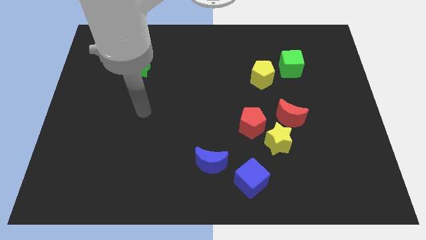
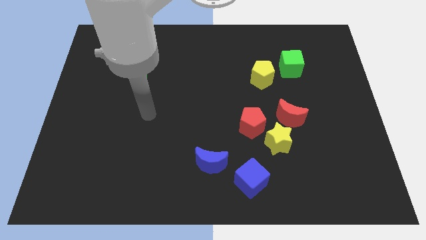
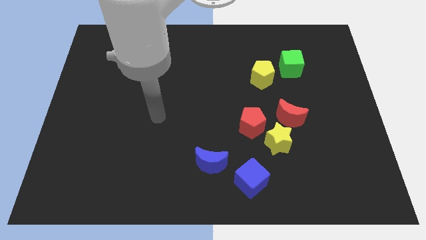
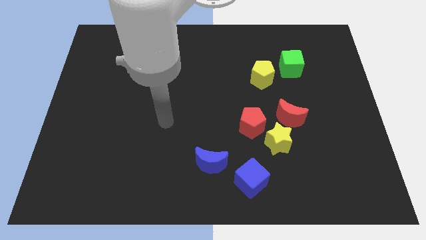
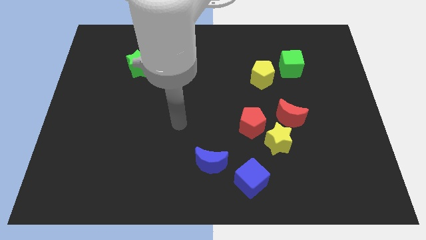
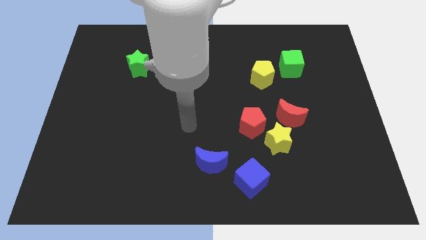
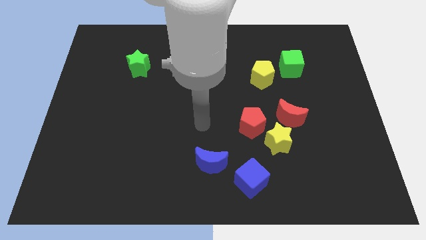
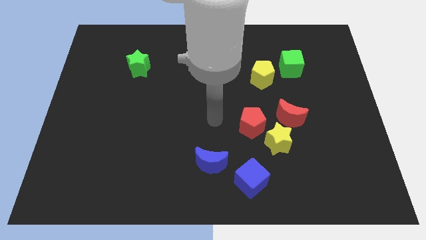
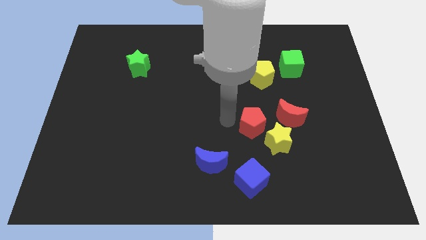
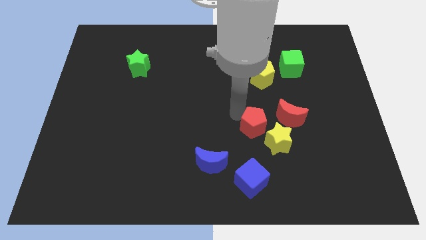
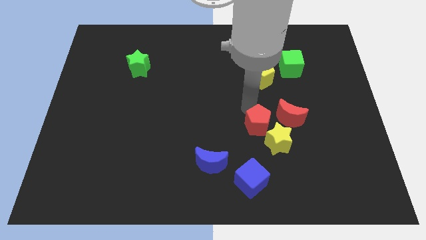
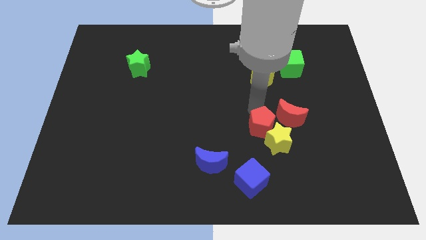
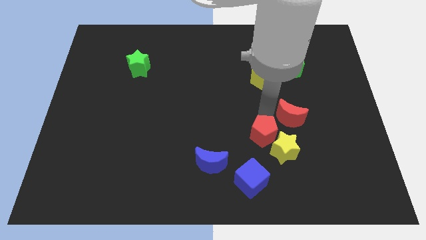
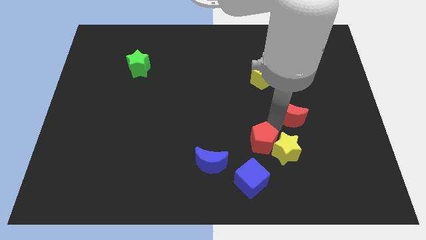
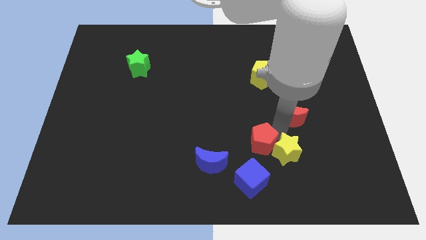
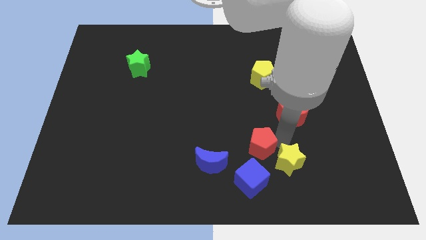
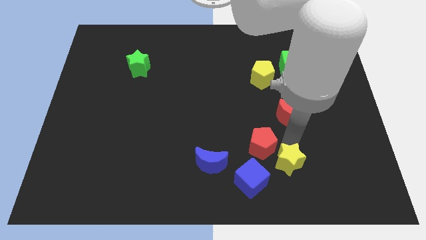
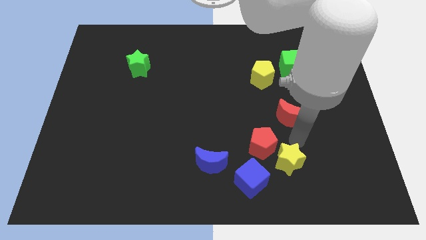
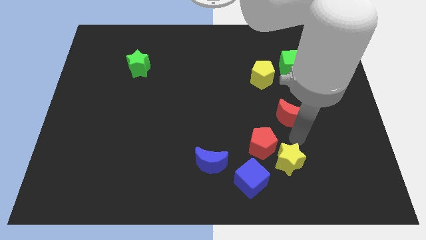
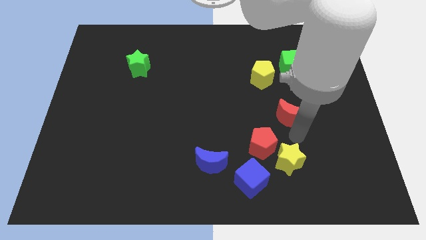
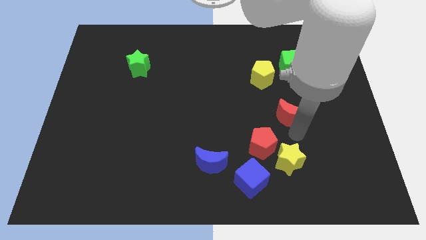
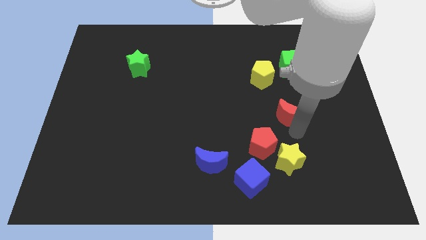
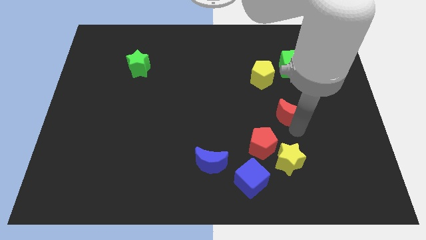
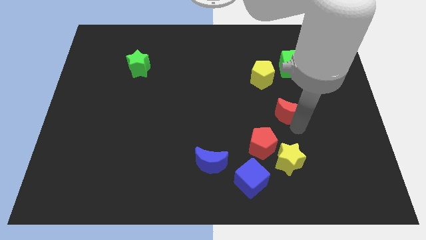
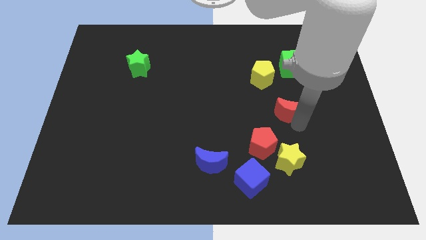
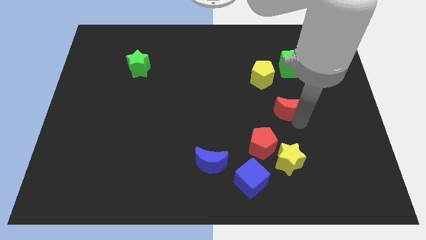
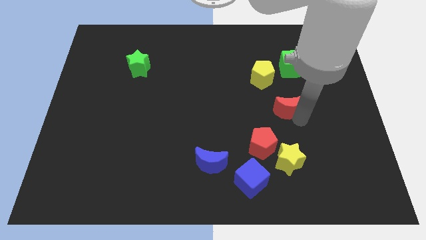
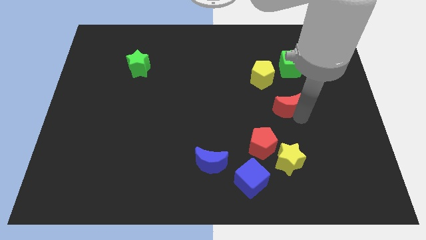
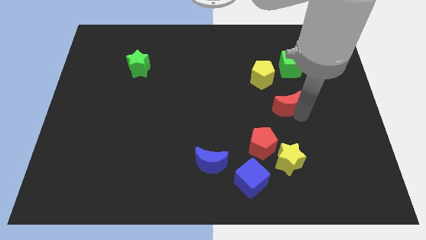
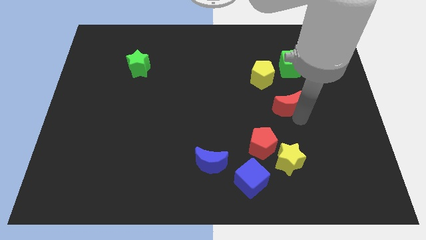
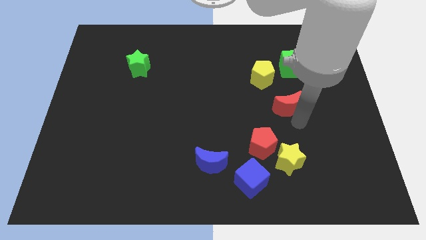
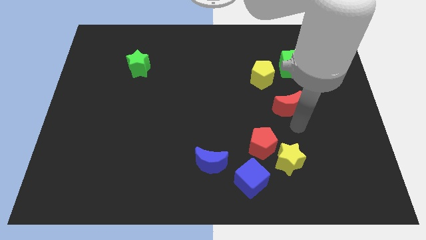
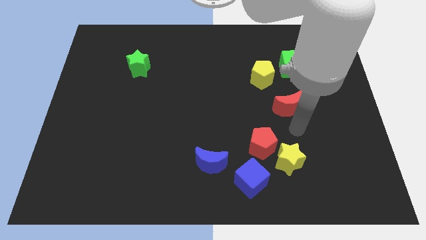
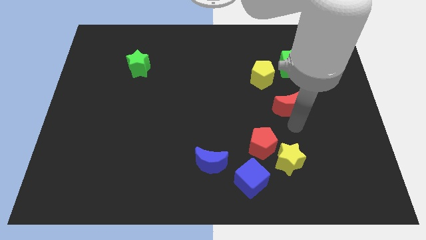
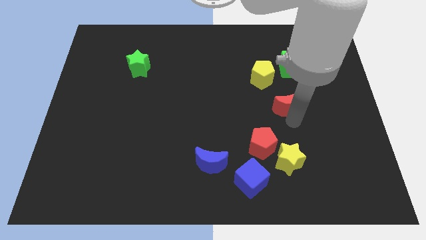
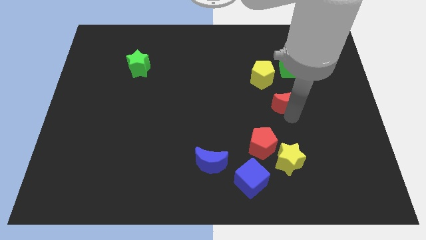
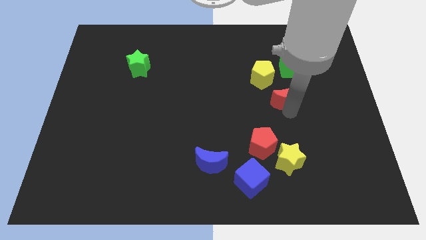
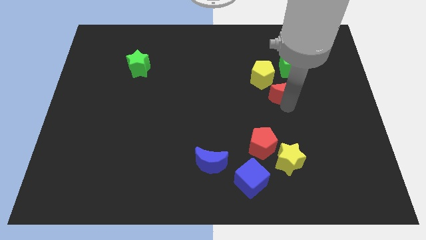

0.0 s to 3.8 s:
slightly push the red moon up

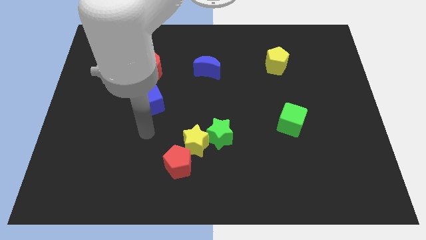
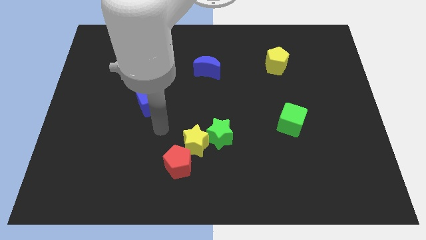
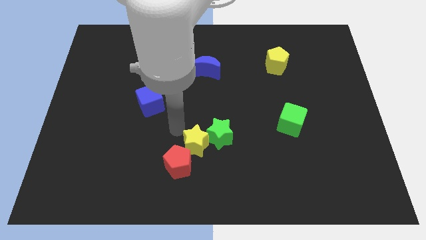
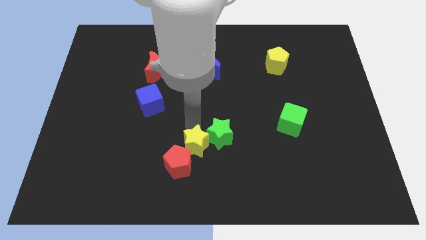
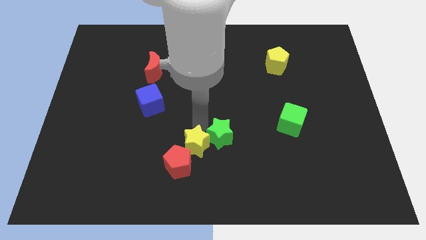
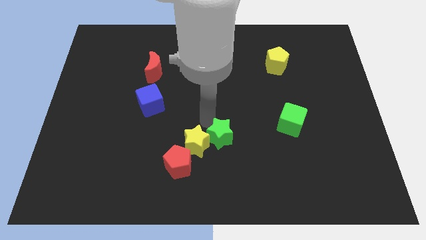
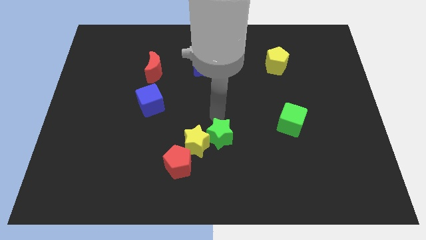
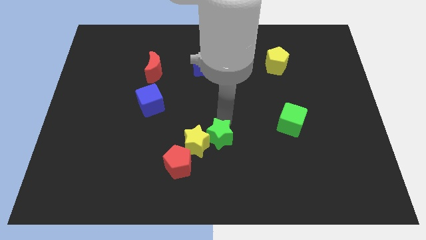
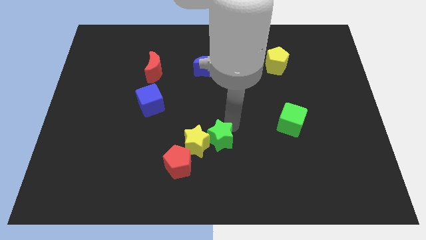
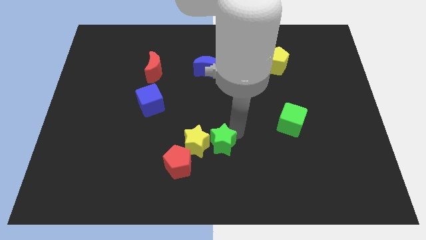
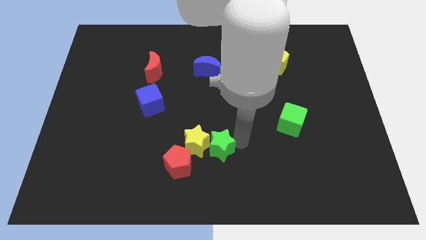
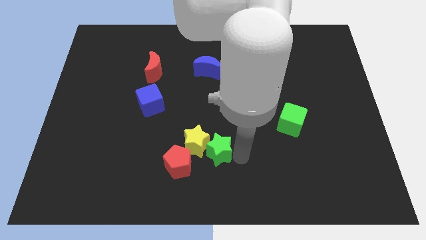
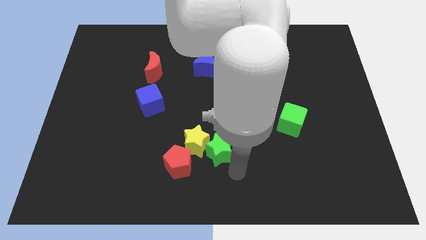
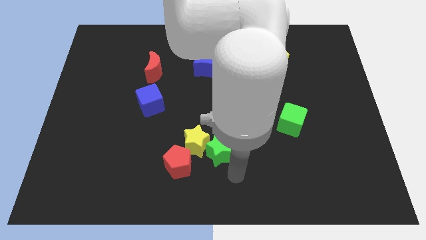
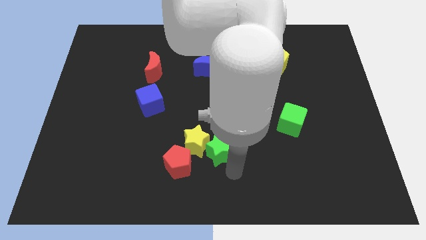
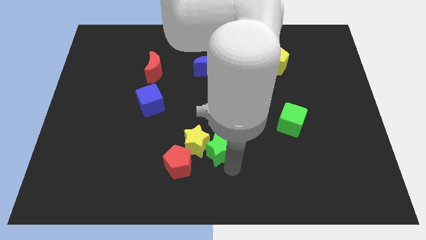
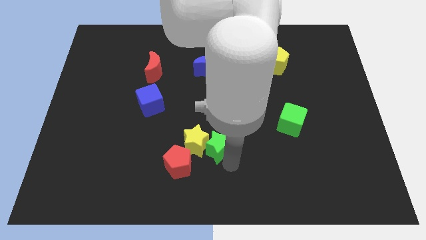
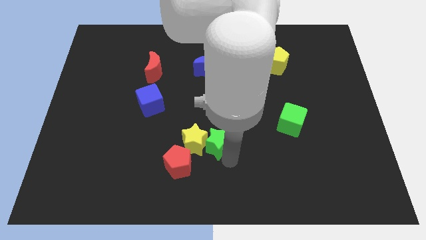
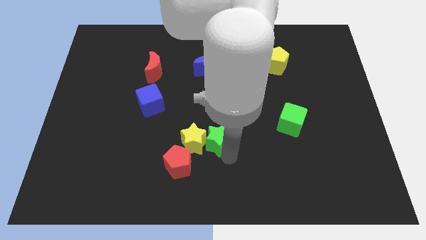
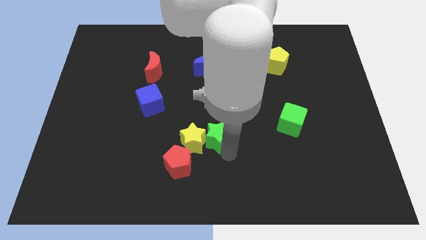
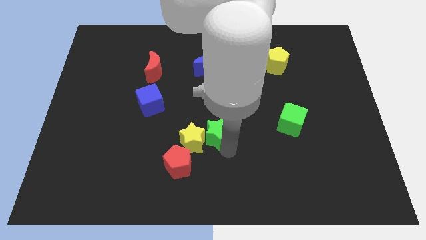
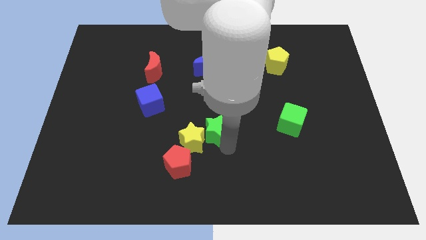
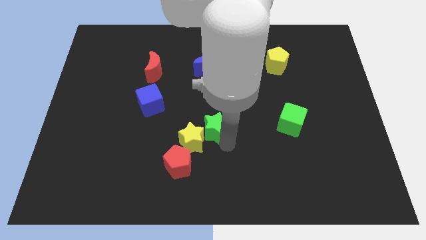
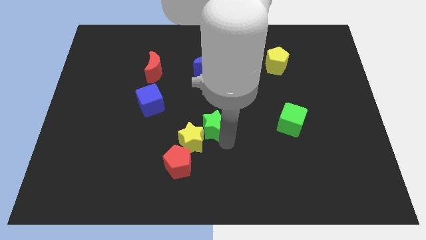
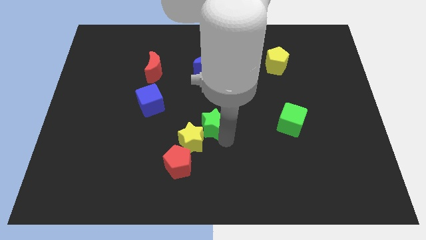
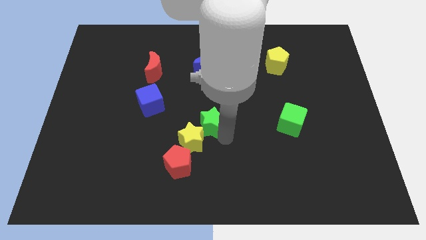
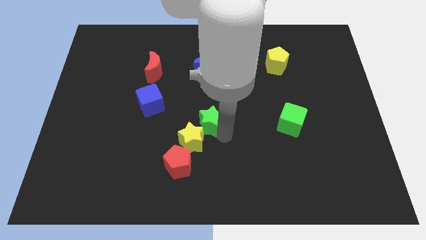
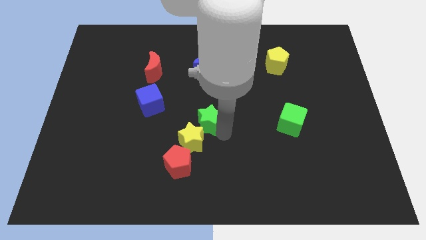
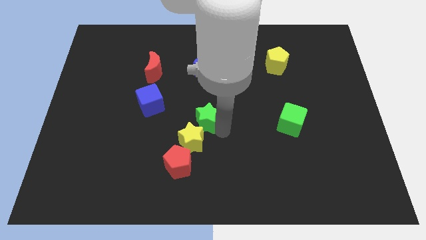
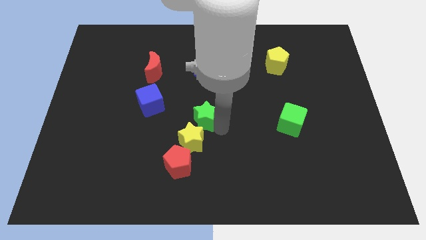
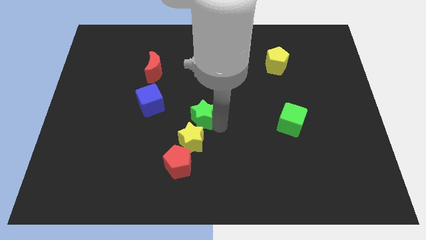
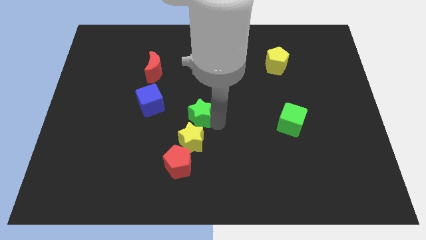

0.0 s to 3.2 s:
push the green star slightly up and to the left diagonally

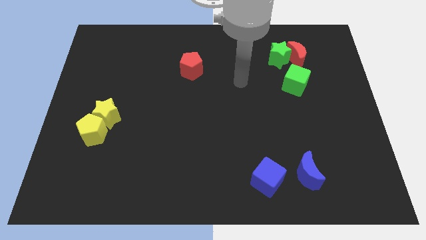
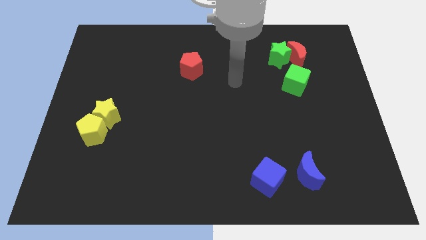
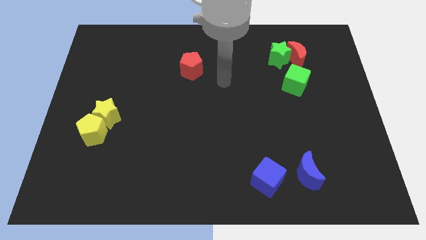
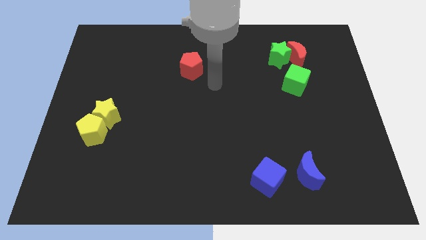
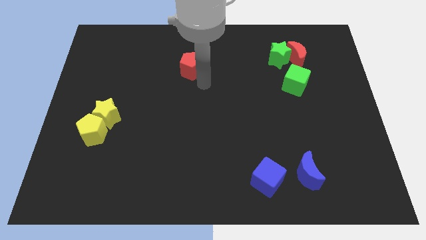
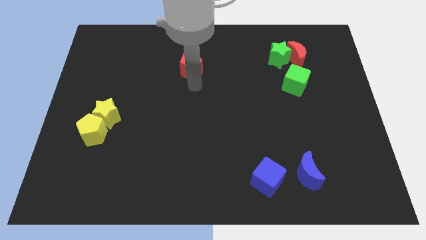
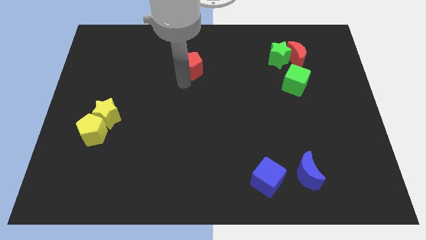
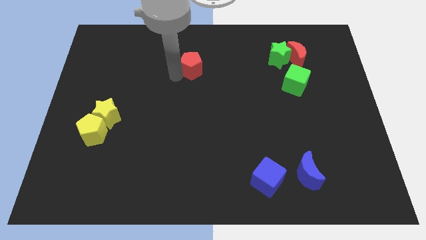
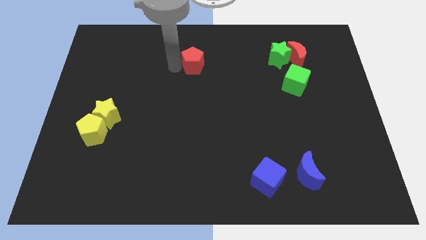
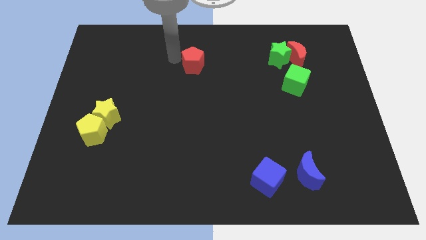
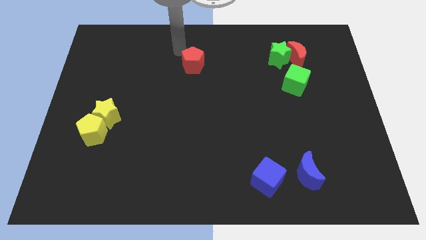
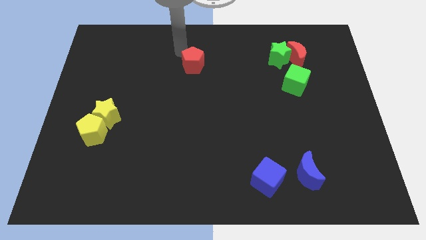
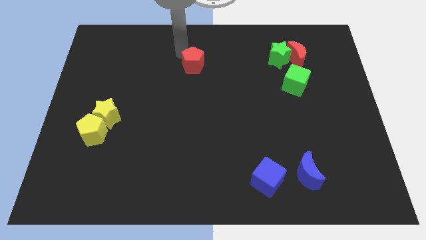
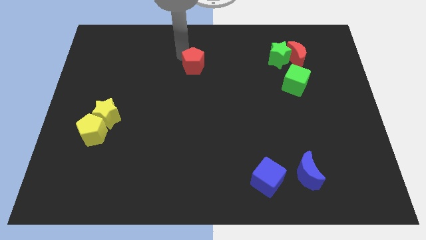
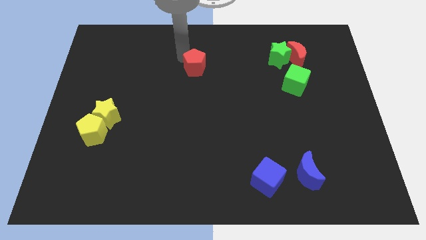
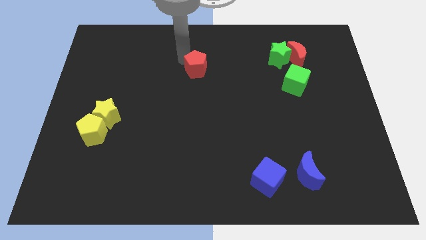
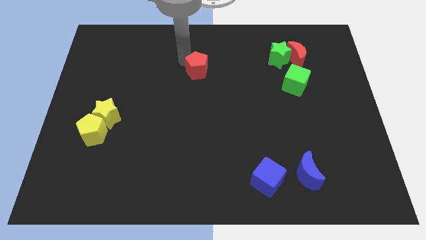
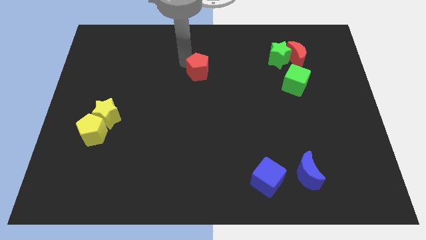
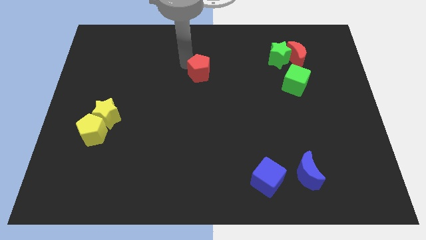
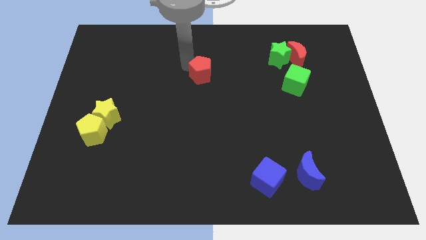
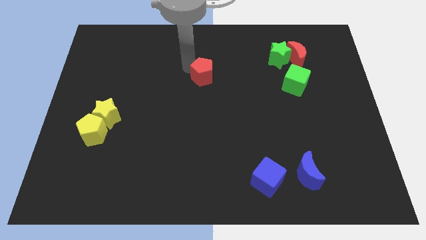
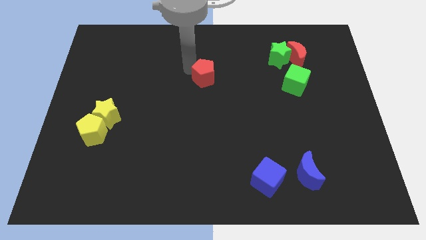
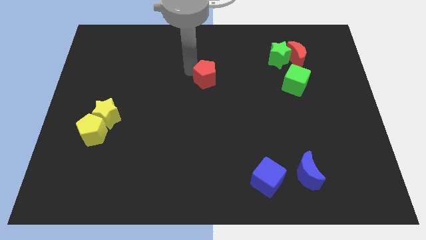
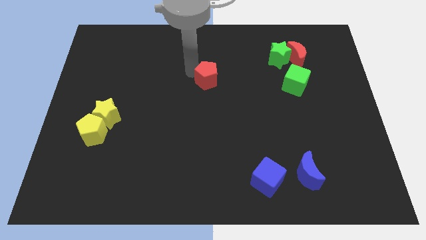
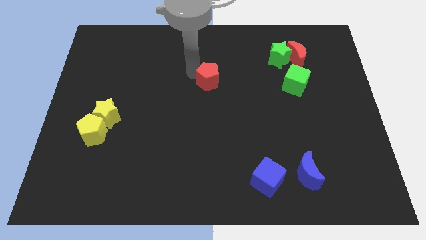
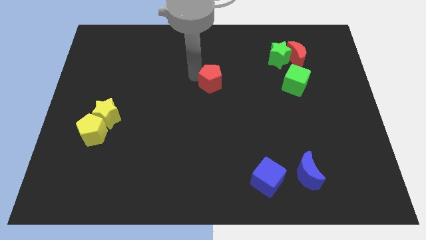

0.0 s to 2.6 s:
slightly push the red pentagon diagonally down and right
